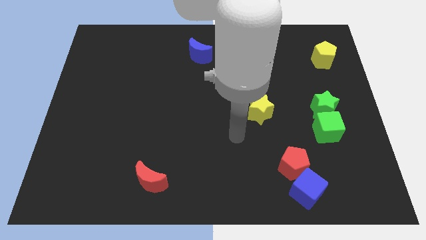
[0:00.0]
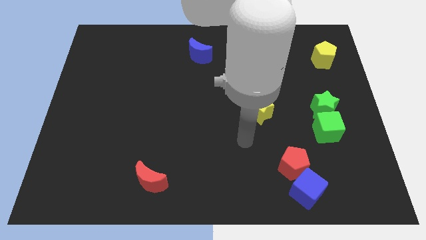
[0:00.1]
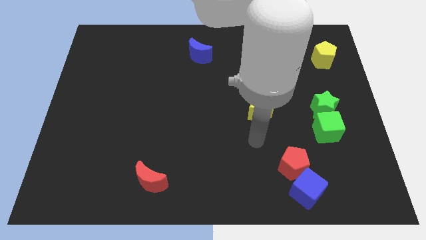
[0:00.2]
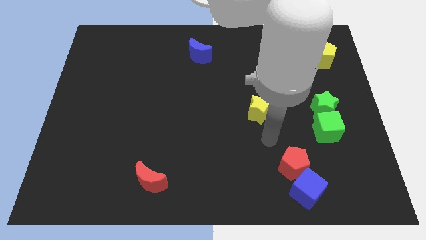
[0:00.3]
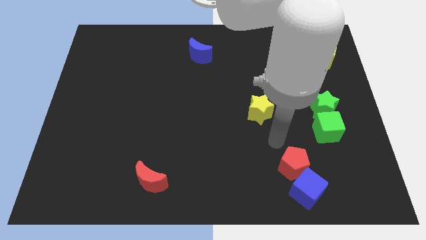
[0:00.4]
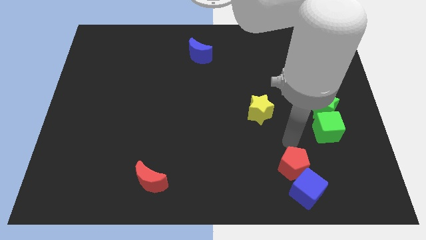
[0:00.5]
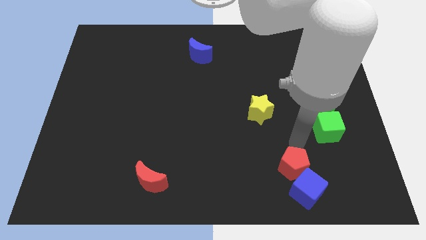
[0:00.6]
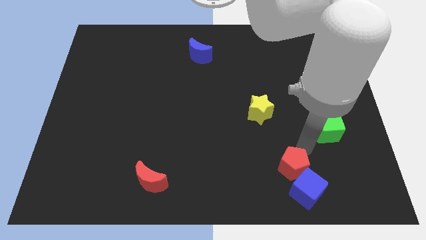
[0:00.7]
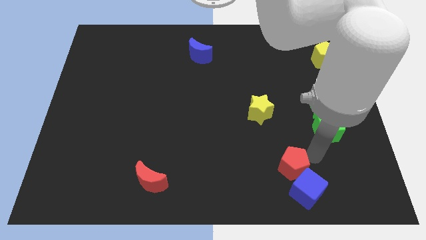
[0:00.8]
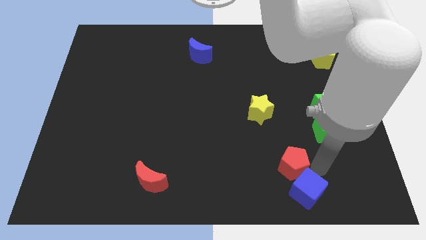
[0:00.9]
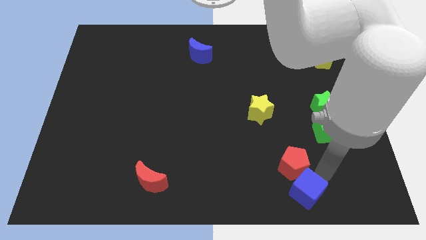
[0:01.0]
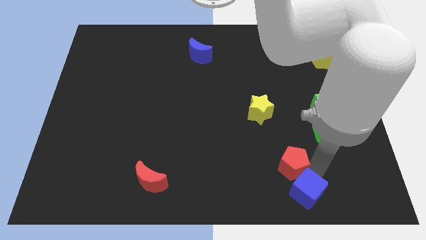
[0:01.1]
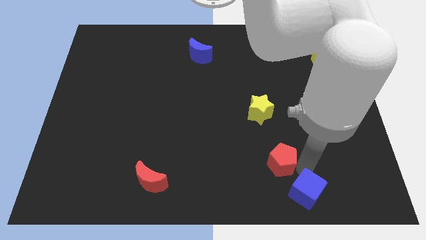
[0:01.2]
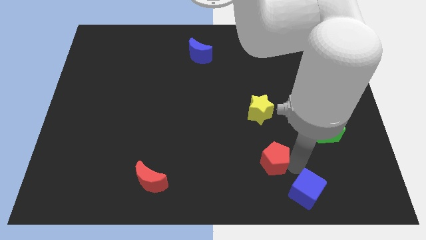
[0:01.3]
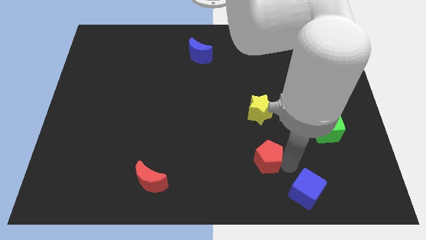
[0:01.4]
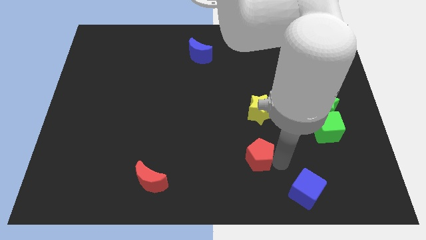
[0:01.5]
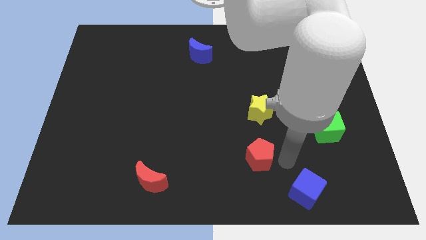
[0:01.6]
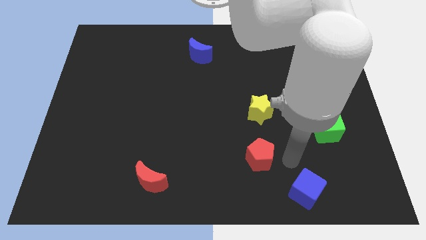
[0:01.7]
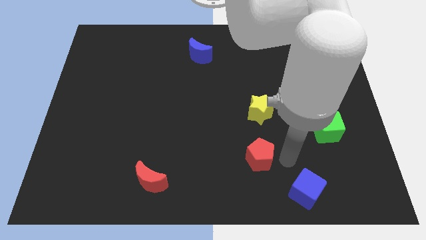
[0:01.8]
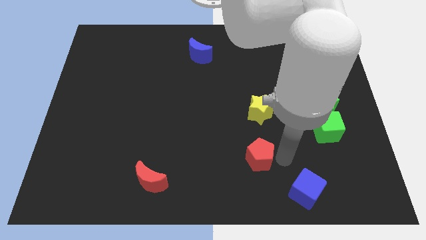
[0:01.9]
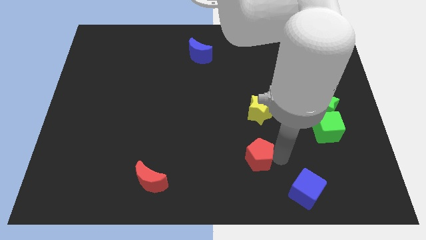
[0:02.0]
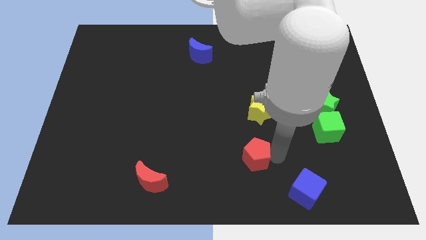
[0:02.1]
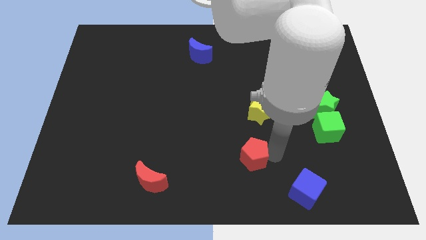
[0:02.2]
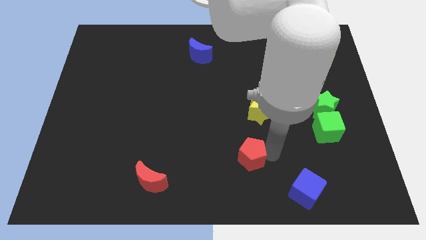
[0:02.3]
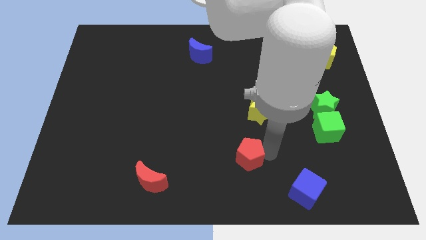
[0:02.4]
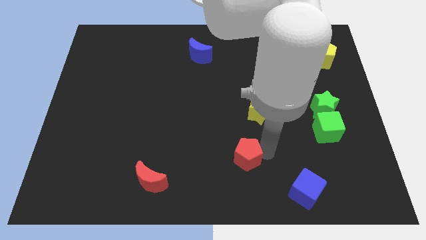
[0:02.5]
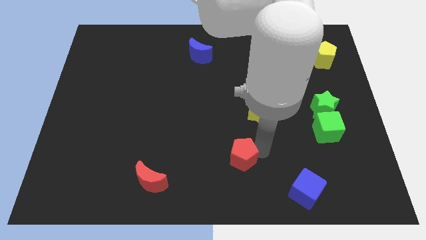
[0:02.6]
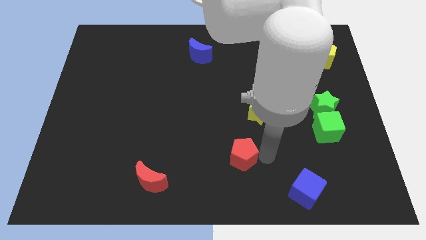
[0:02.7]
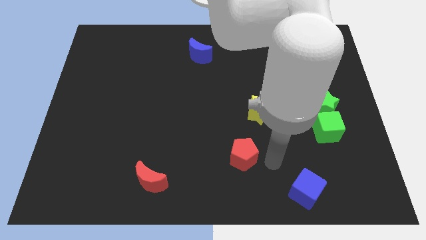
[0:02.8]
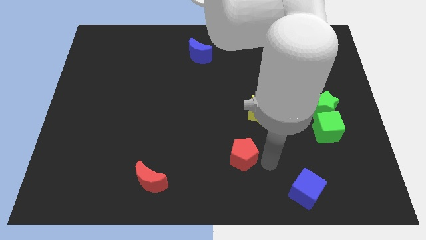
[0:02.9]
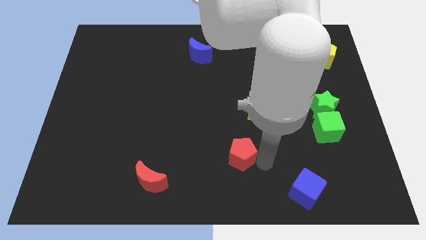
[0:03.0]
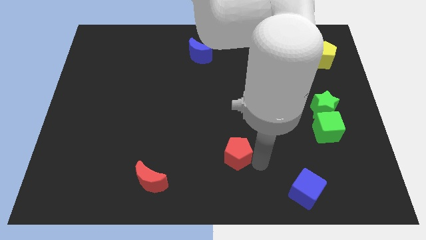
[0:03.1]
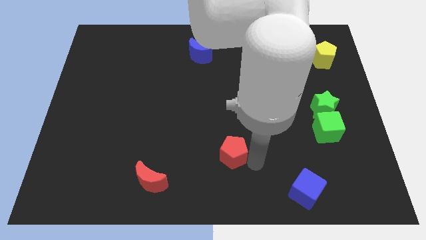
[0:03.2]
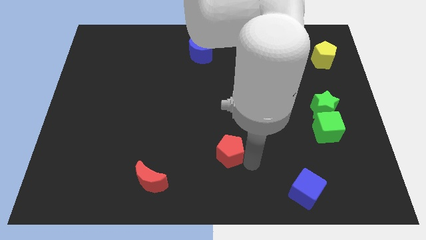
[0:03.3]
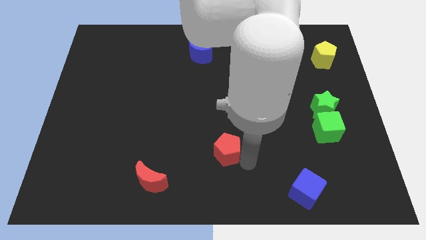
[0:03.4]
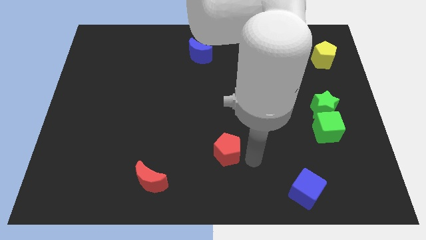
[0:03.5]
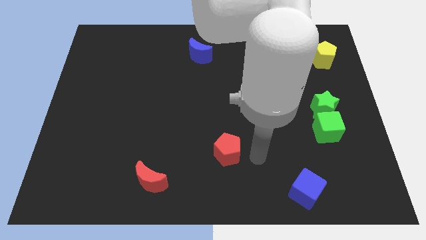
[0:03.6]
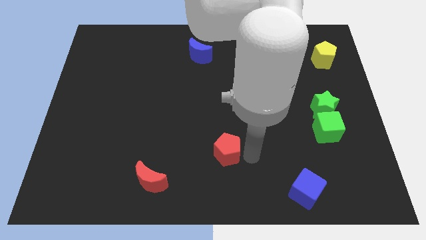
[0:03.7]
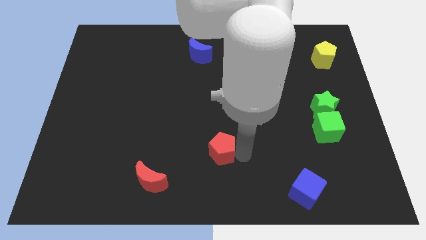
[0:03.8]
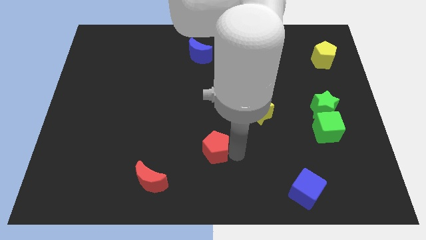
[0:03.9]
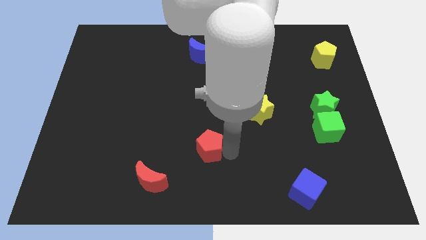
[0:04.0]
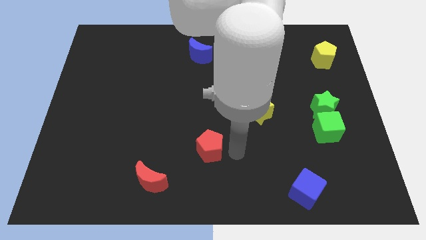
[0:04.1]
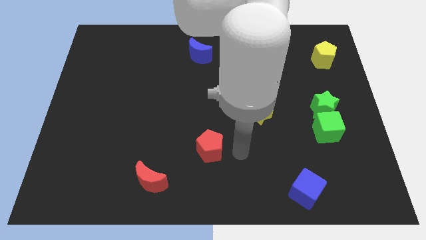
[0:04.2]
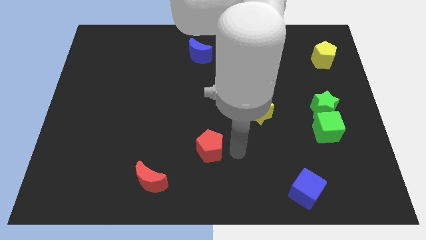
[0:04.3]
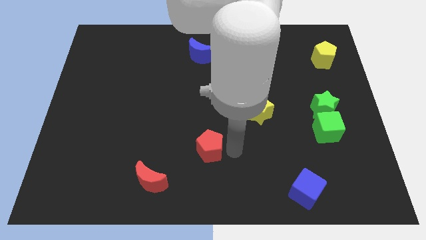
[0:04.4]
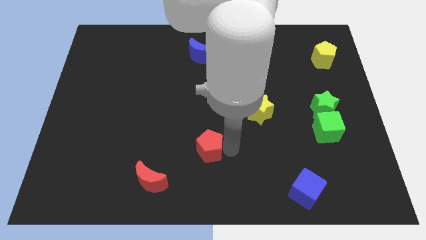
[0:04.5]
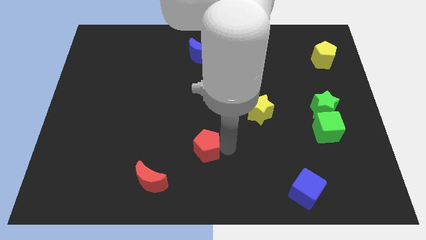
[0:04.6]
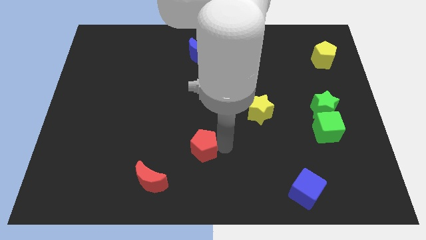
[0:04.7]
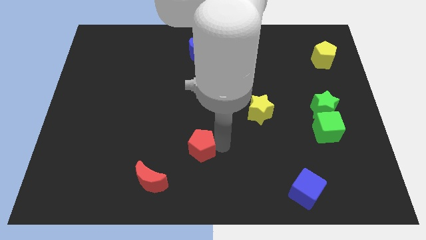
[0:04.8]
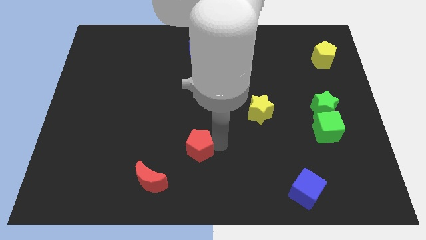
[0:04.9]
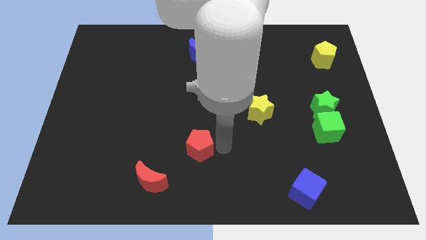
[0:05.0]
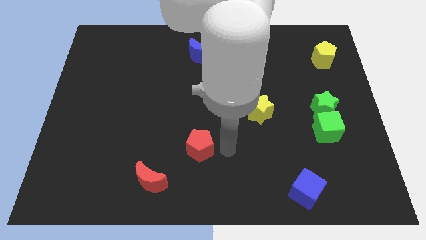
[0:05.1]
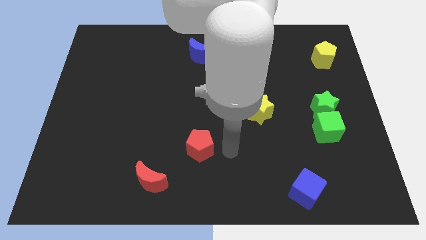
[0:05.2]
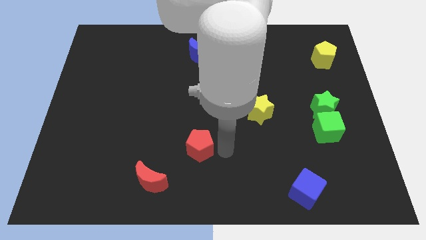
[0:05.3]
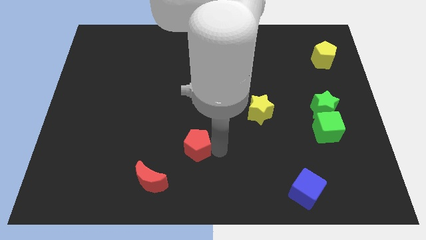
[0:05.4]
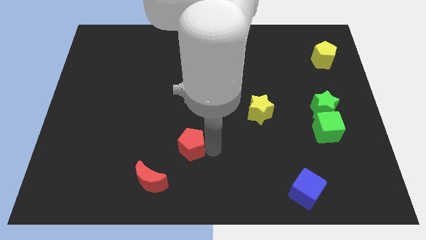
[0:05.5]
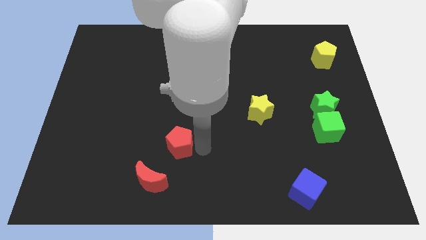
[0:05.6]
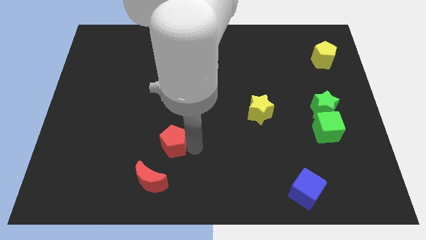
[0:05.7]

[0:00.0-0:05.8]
move the red pentagon to the top side of the red moon

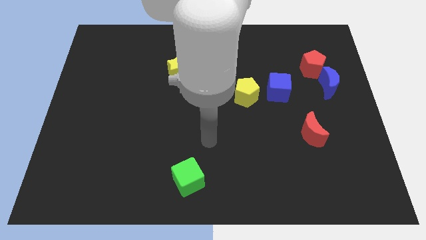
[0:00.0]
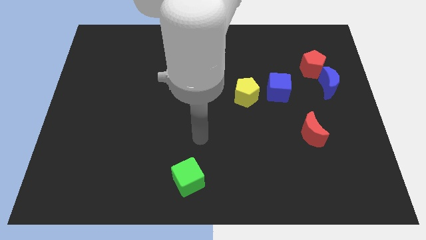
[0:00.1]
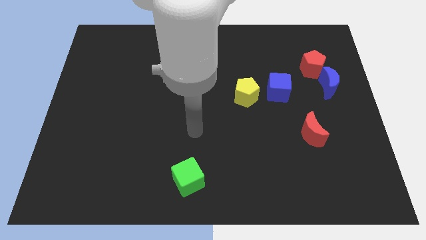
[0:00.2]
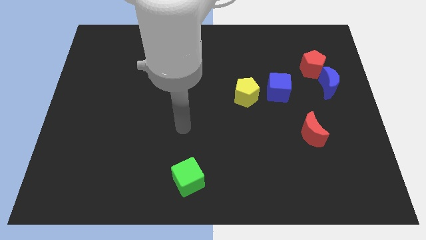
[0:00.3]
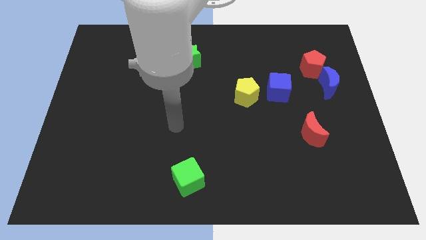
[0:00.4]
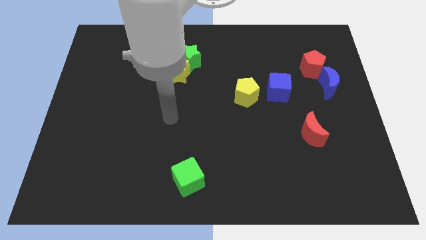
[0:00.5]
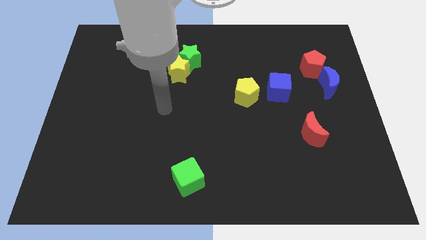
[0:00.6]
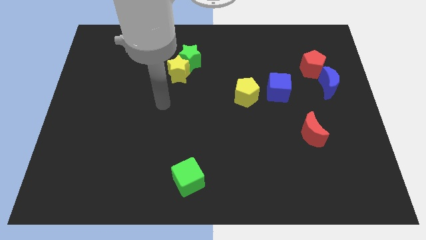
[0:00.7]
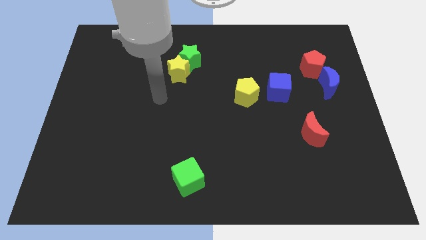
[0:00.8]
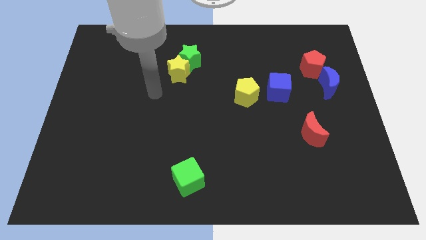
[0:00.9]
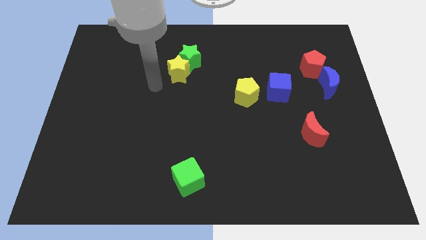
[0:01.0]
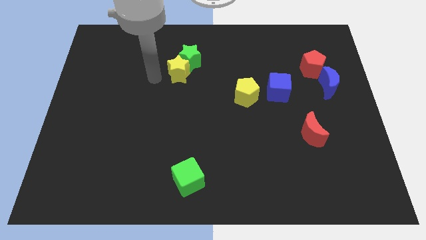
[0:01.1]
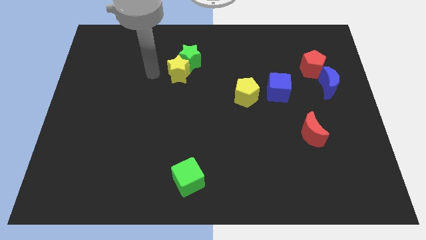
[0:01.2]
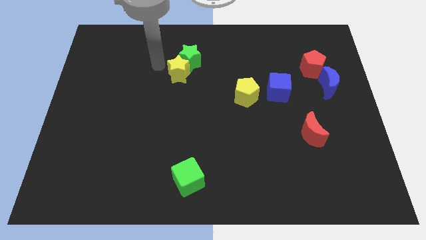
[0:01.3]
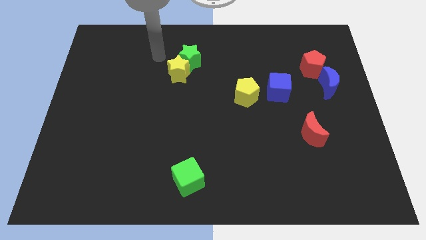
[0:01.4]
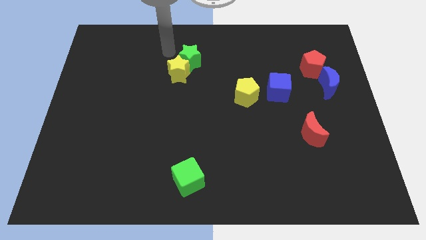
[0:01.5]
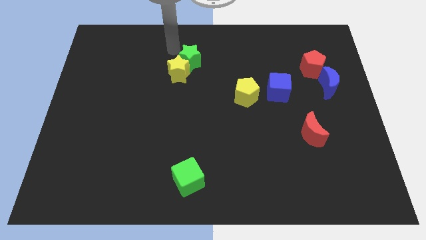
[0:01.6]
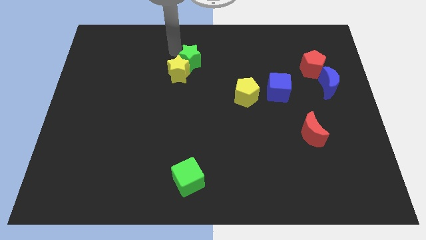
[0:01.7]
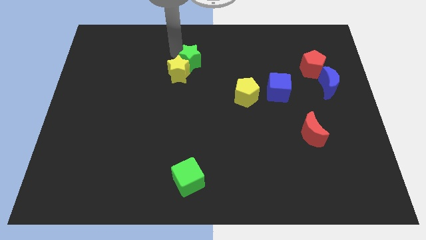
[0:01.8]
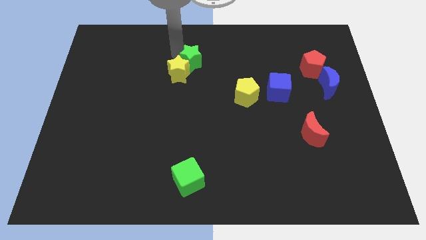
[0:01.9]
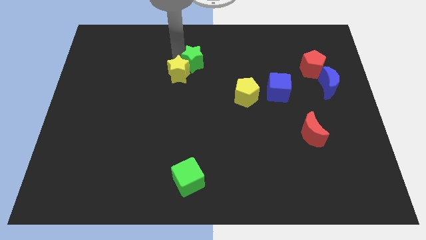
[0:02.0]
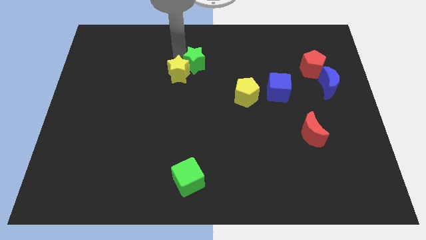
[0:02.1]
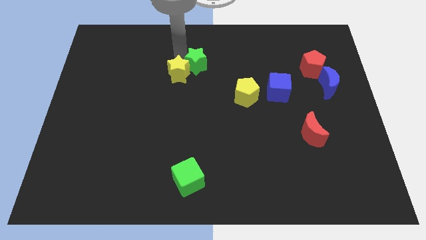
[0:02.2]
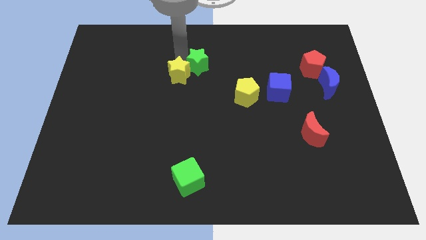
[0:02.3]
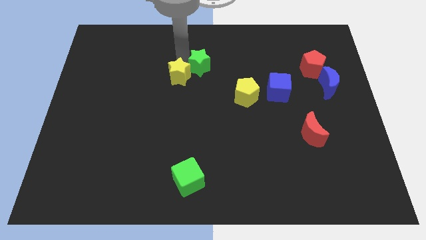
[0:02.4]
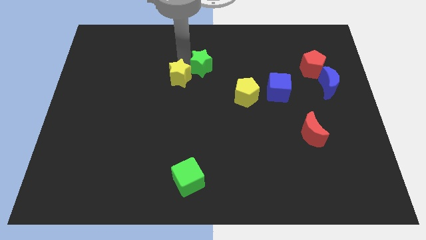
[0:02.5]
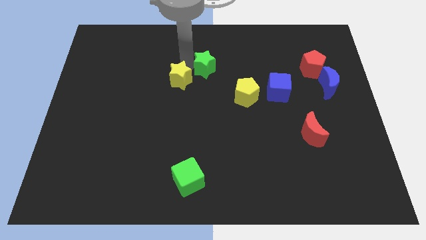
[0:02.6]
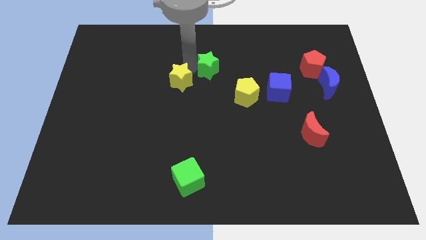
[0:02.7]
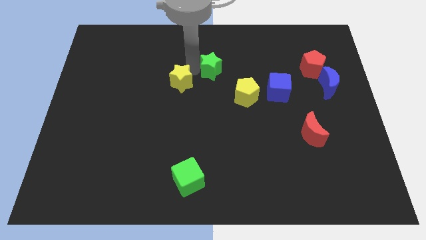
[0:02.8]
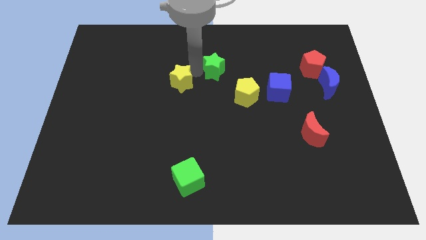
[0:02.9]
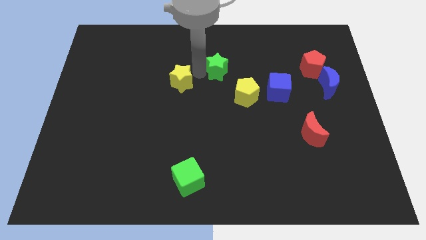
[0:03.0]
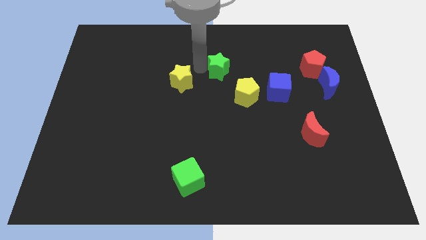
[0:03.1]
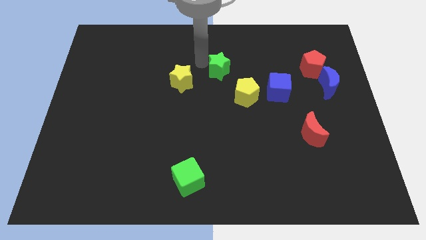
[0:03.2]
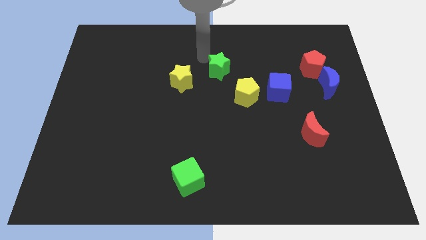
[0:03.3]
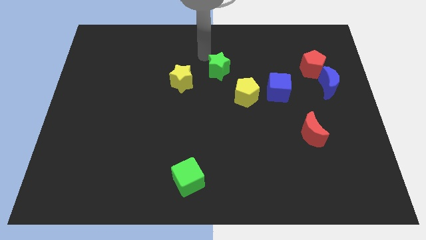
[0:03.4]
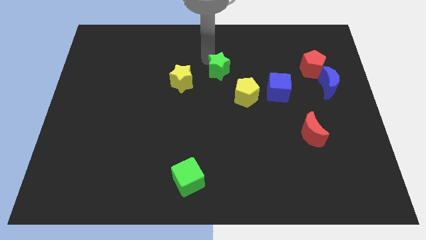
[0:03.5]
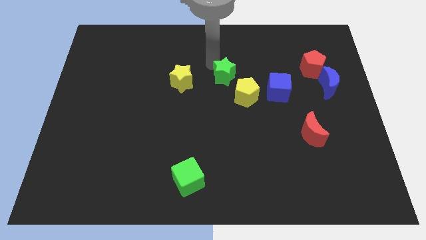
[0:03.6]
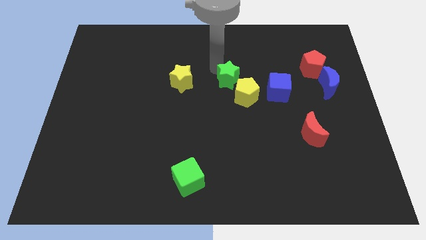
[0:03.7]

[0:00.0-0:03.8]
put the green star left of the blue cube
